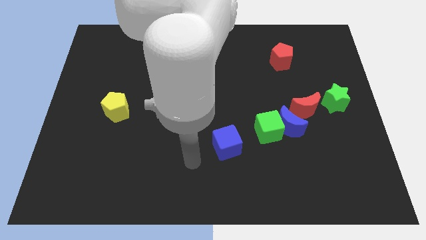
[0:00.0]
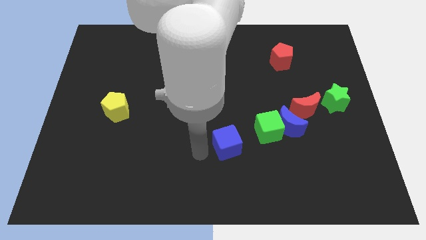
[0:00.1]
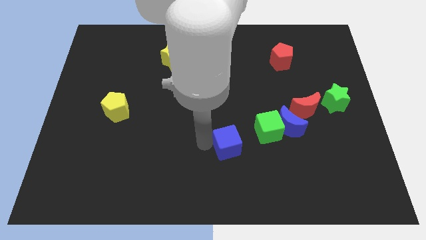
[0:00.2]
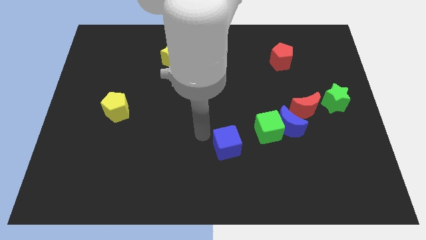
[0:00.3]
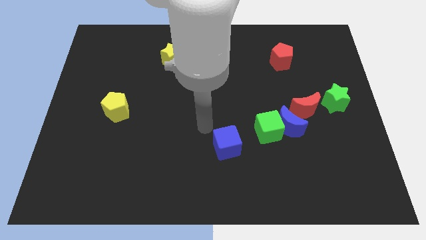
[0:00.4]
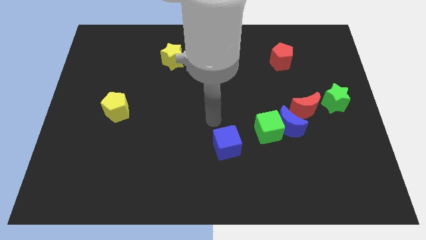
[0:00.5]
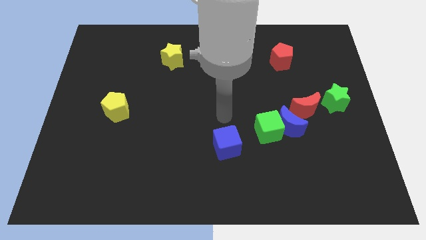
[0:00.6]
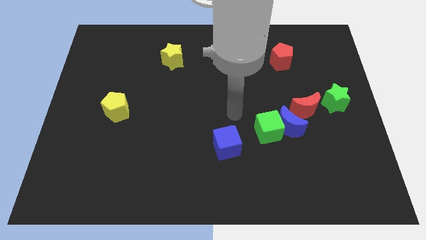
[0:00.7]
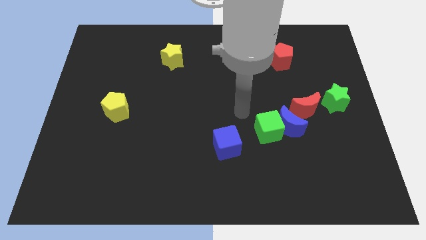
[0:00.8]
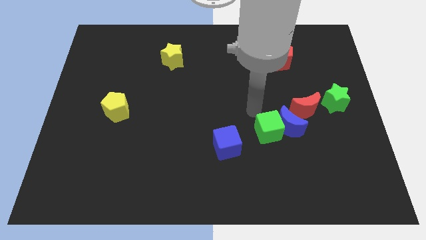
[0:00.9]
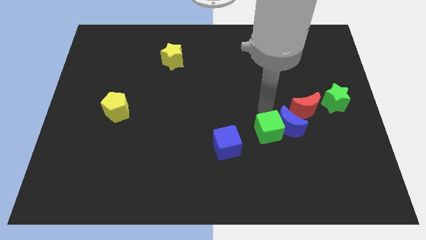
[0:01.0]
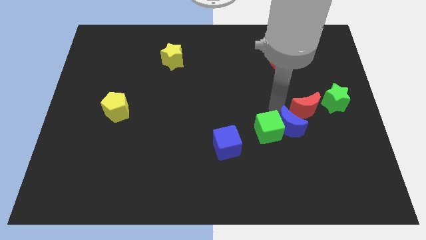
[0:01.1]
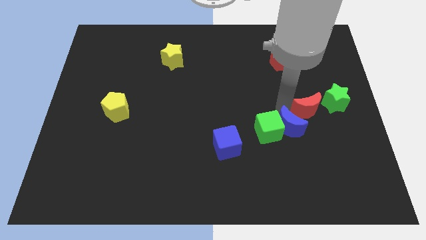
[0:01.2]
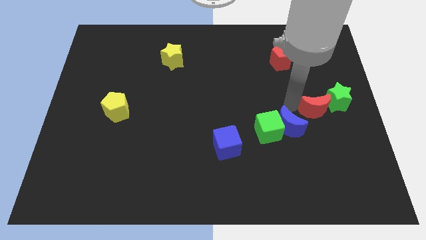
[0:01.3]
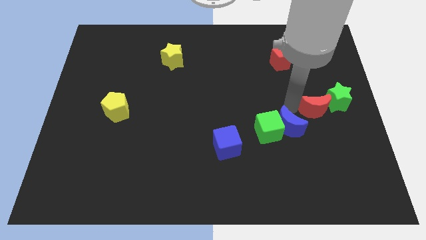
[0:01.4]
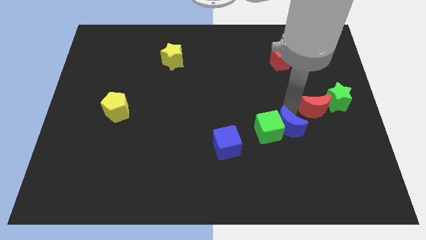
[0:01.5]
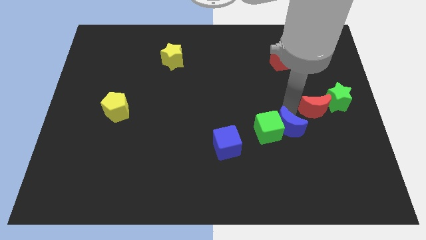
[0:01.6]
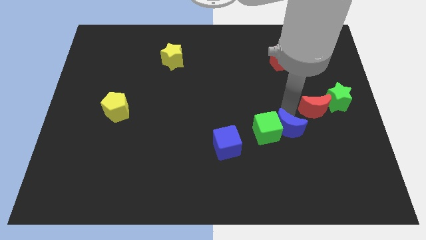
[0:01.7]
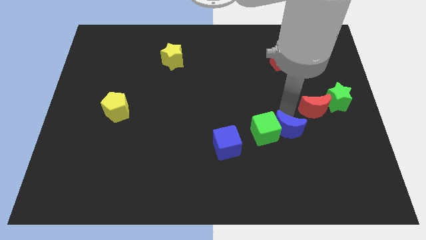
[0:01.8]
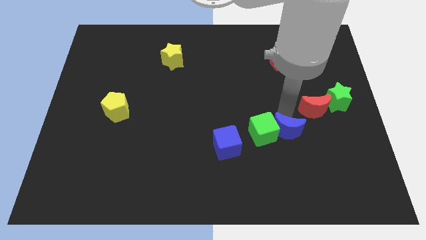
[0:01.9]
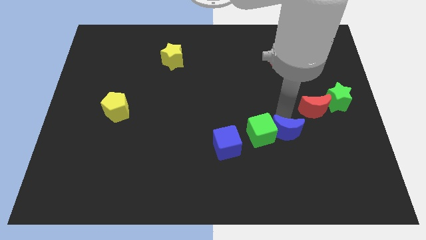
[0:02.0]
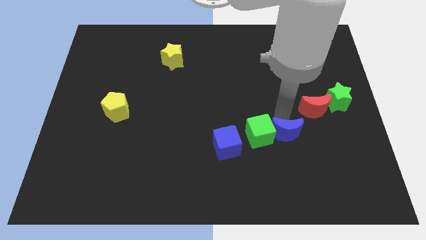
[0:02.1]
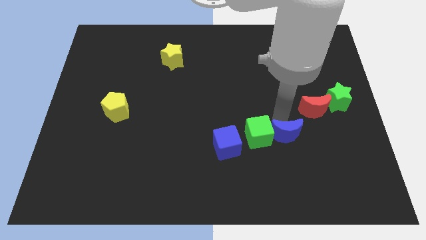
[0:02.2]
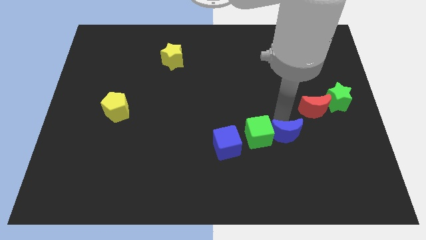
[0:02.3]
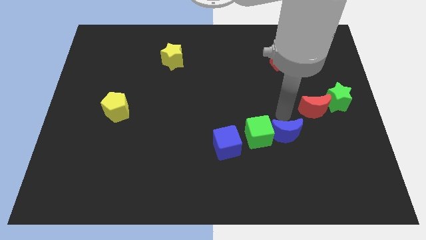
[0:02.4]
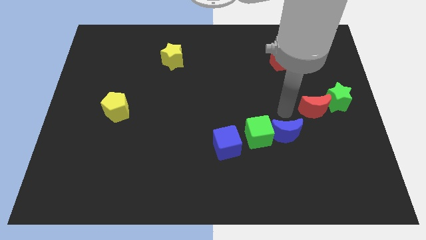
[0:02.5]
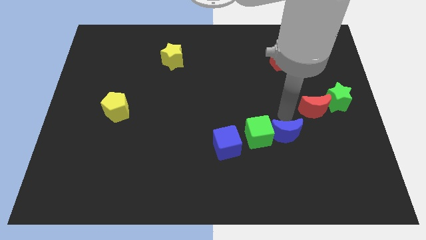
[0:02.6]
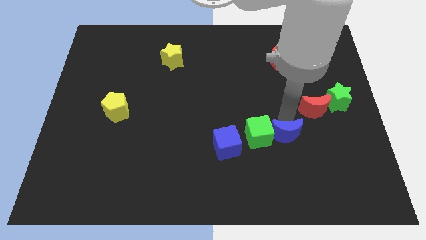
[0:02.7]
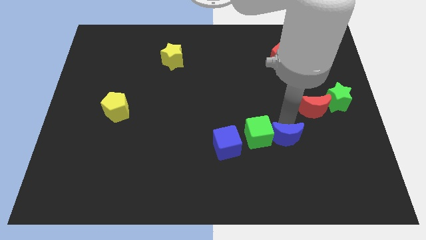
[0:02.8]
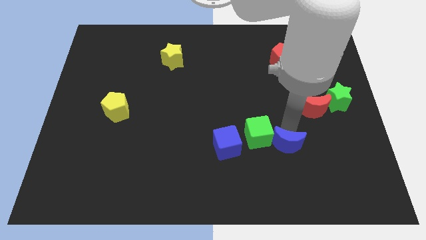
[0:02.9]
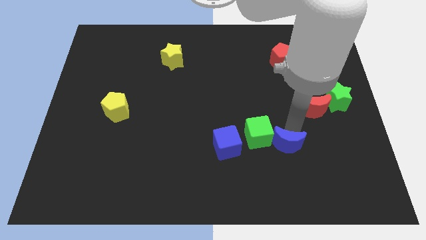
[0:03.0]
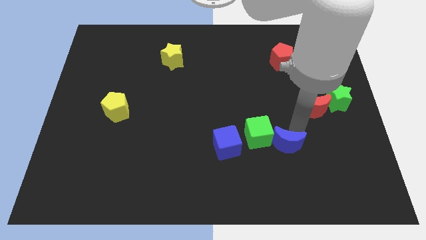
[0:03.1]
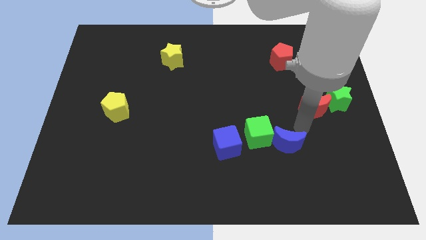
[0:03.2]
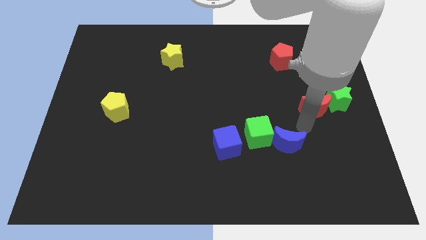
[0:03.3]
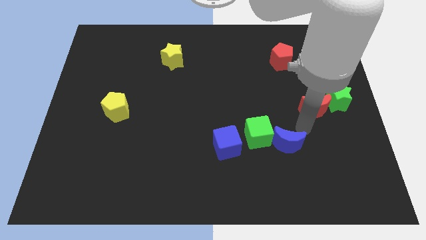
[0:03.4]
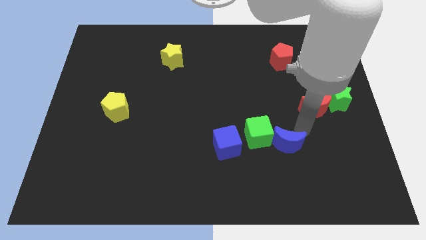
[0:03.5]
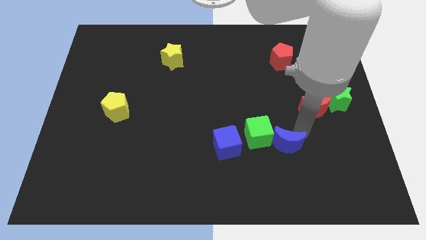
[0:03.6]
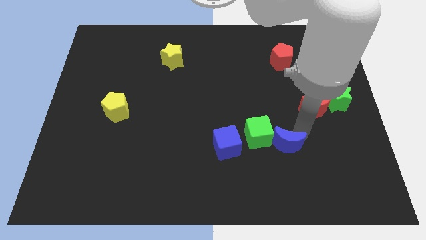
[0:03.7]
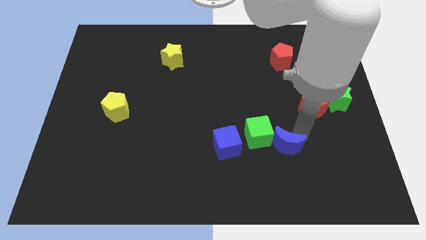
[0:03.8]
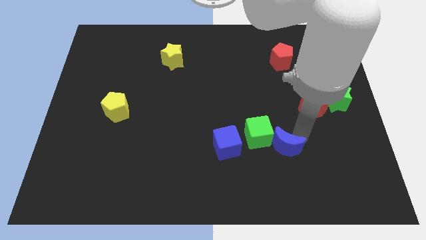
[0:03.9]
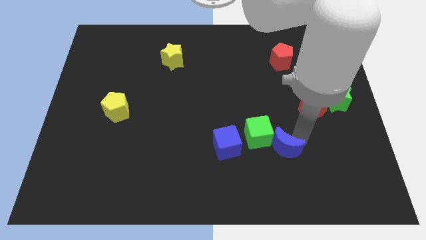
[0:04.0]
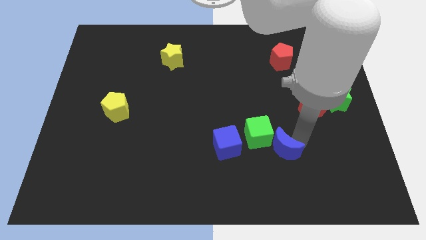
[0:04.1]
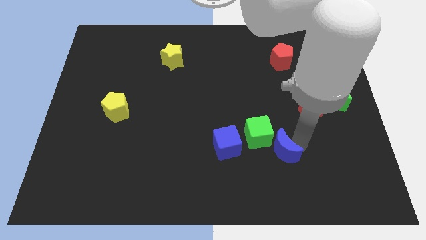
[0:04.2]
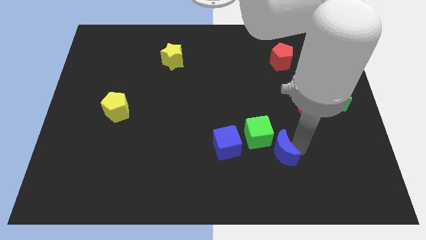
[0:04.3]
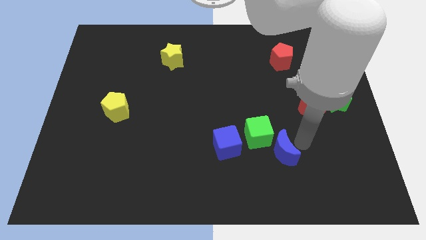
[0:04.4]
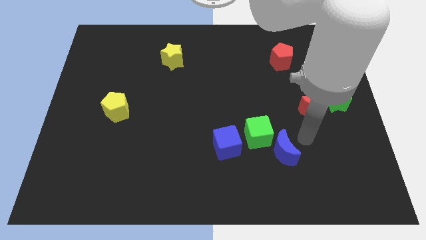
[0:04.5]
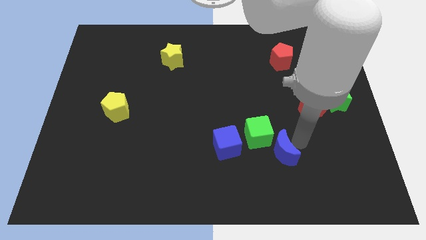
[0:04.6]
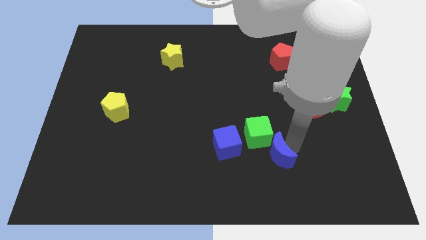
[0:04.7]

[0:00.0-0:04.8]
slightly move the blue moon down and left diagonally

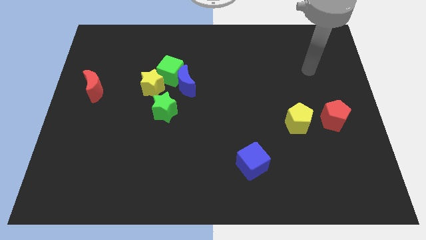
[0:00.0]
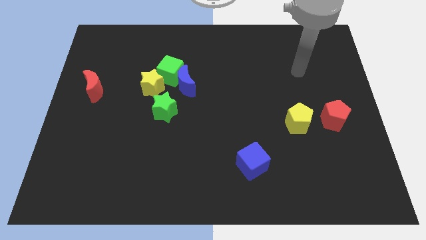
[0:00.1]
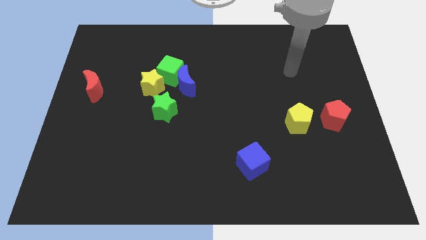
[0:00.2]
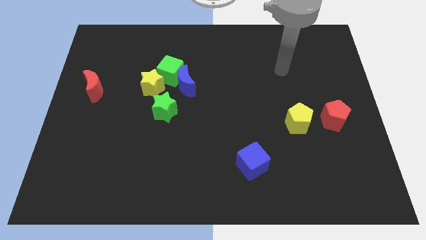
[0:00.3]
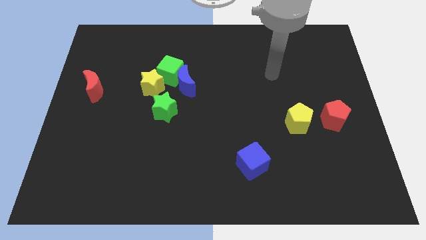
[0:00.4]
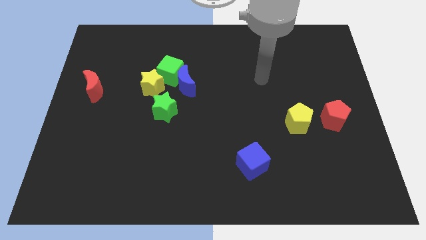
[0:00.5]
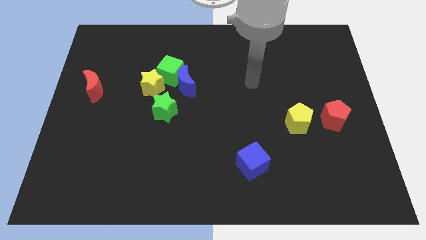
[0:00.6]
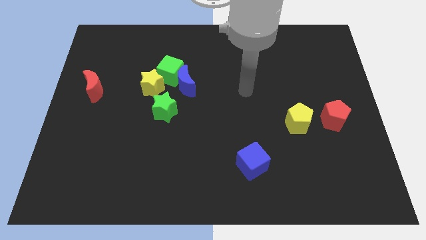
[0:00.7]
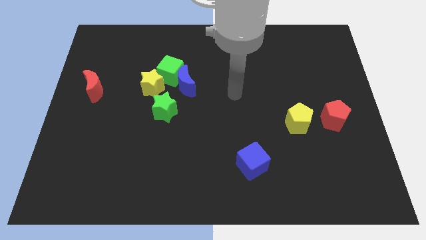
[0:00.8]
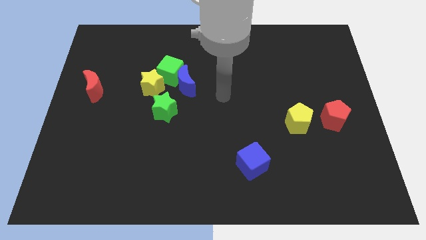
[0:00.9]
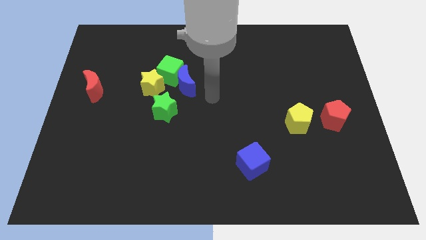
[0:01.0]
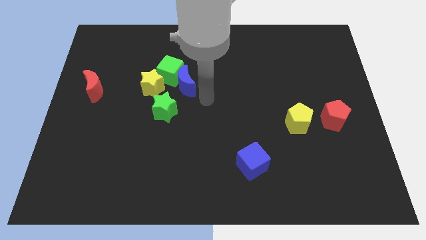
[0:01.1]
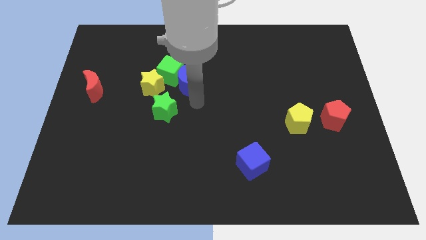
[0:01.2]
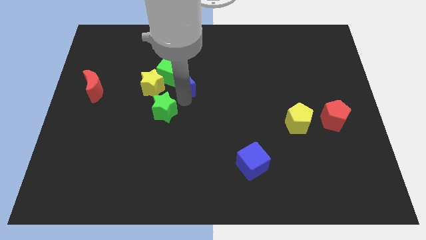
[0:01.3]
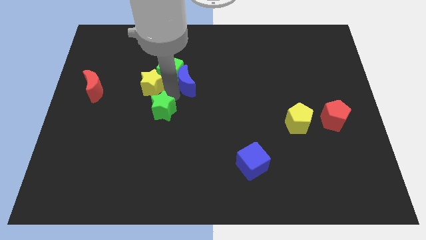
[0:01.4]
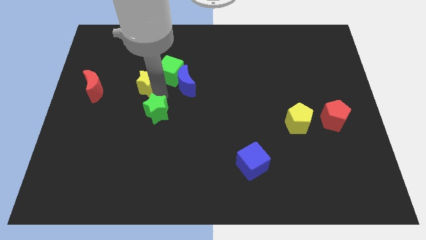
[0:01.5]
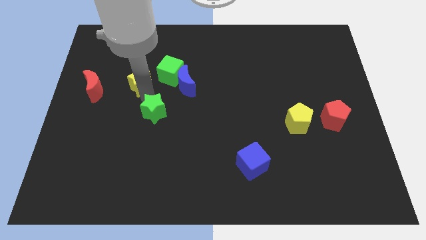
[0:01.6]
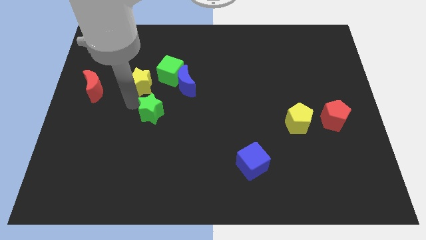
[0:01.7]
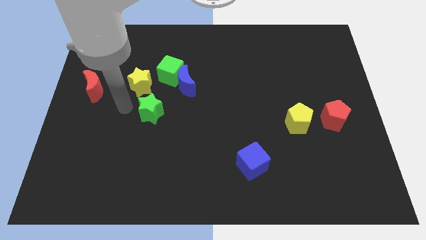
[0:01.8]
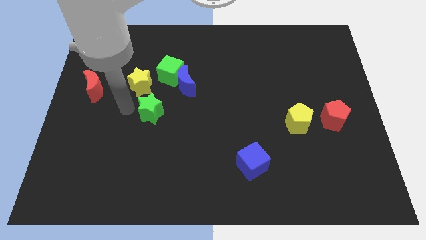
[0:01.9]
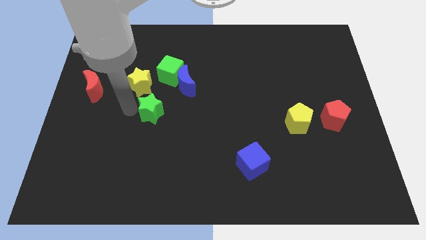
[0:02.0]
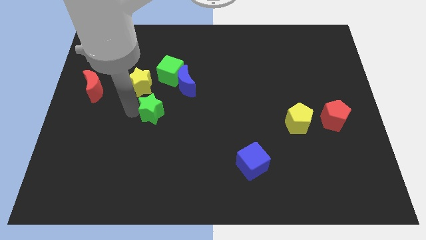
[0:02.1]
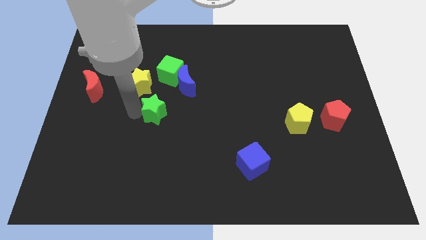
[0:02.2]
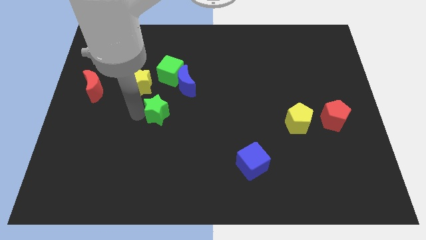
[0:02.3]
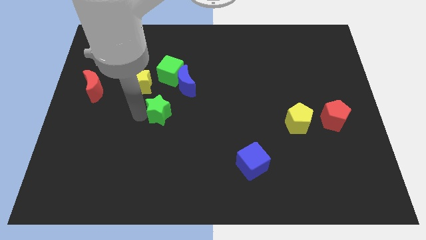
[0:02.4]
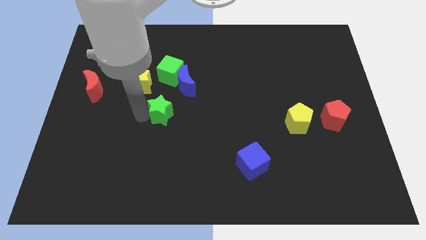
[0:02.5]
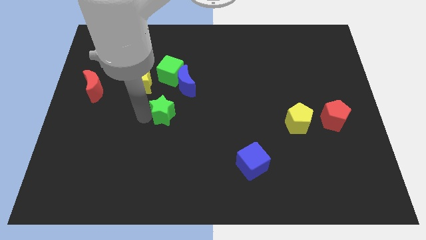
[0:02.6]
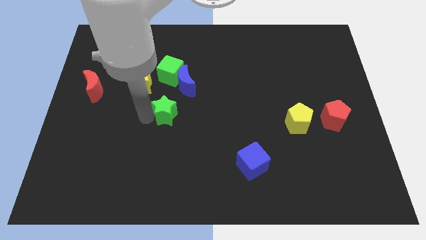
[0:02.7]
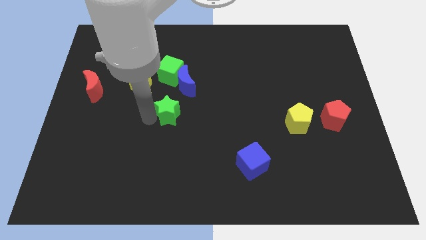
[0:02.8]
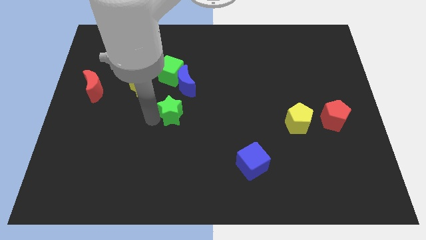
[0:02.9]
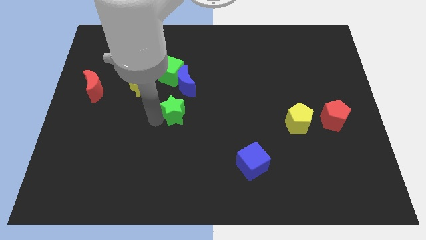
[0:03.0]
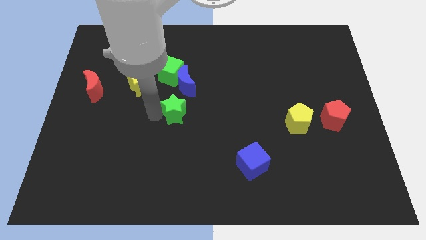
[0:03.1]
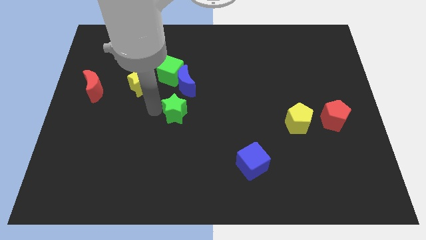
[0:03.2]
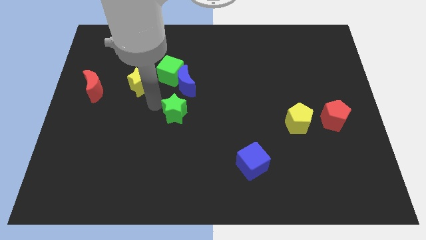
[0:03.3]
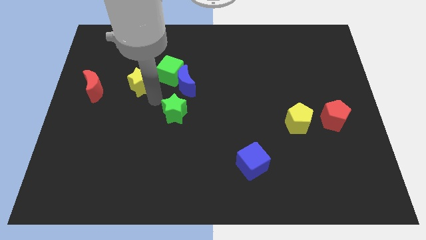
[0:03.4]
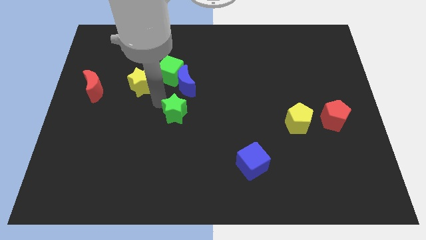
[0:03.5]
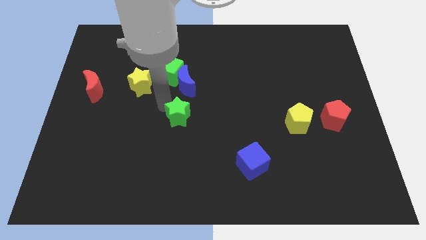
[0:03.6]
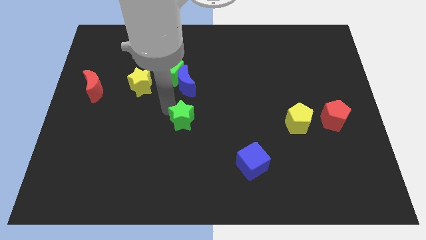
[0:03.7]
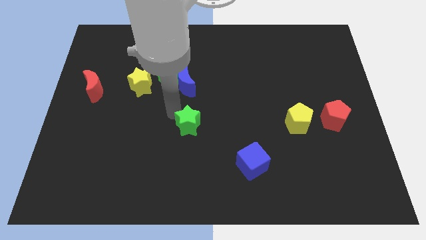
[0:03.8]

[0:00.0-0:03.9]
slightly slide the green star diagonally downwards and right
